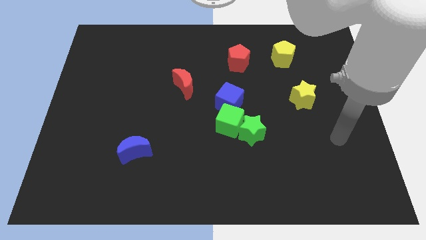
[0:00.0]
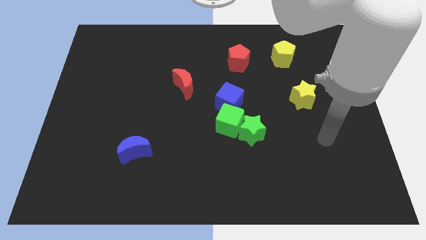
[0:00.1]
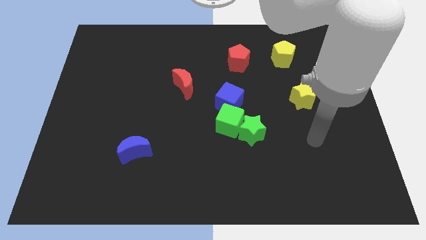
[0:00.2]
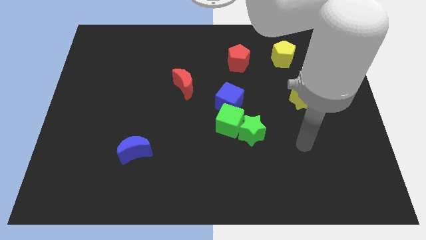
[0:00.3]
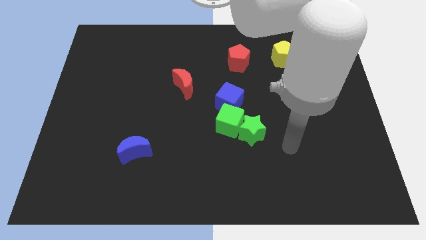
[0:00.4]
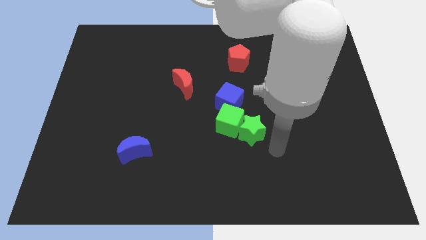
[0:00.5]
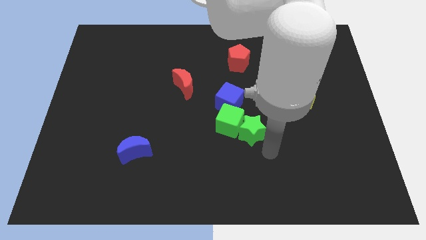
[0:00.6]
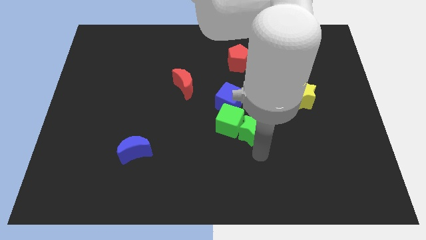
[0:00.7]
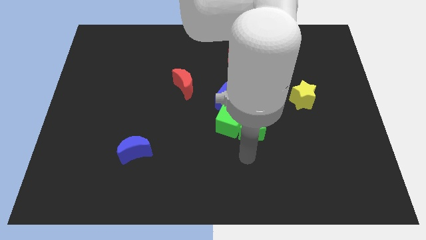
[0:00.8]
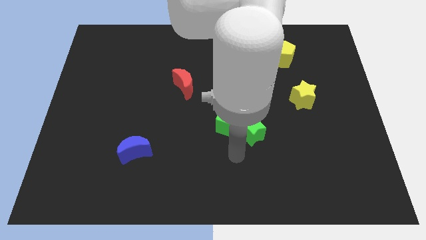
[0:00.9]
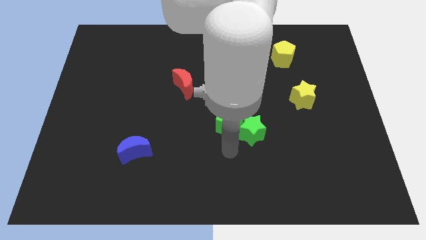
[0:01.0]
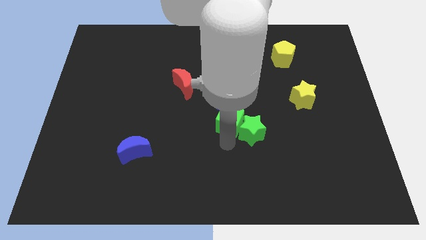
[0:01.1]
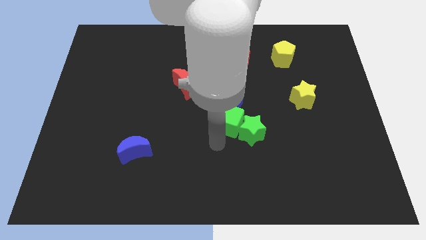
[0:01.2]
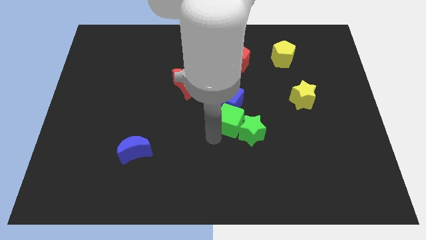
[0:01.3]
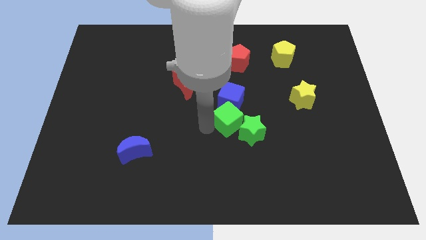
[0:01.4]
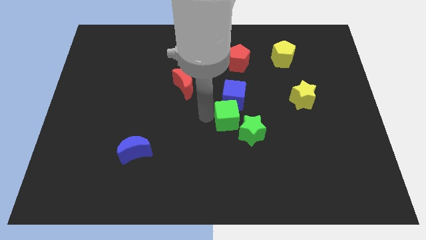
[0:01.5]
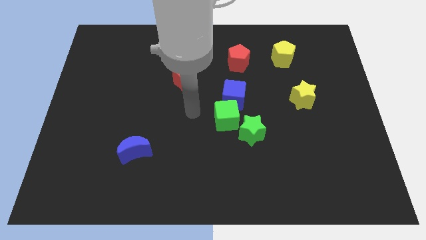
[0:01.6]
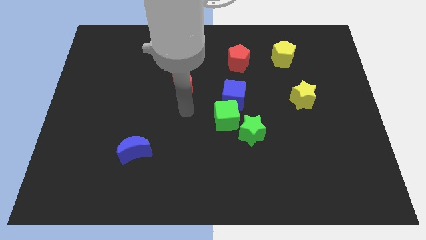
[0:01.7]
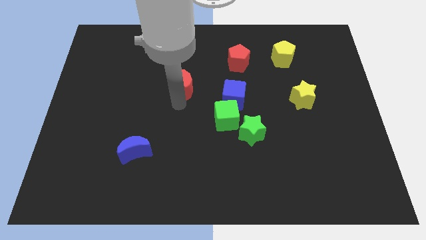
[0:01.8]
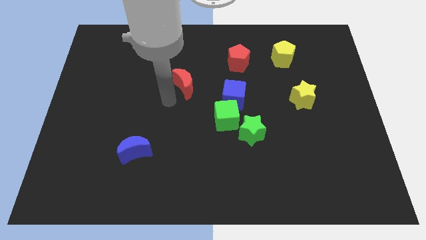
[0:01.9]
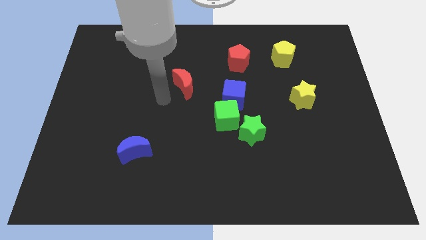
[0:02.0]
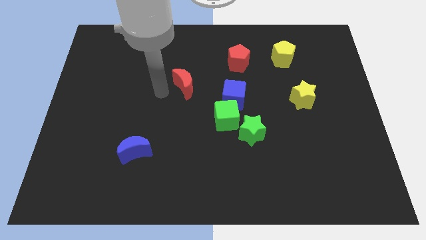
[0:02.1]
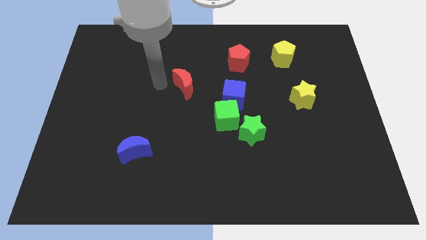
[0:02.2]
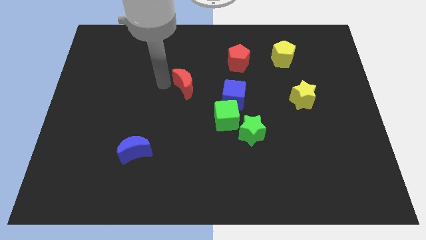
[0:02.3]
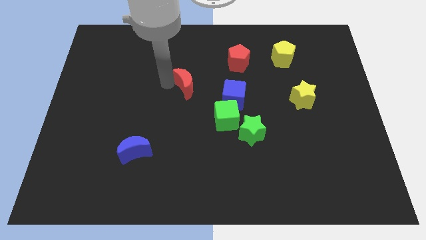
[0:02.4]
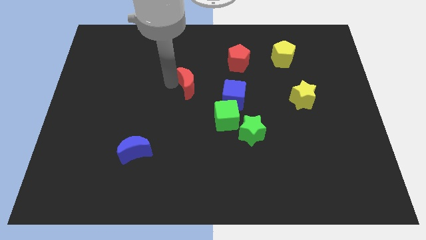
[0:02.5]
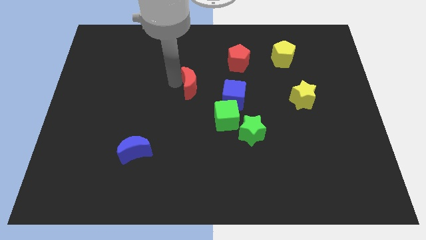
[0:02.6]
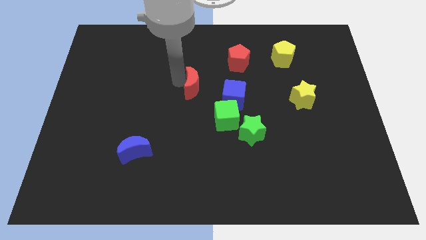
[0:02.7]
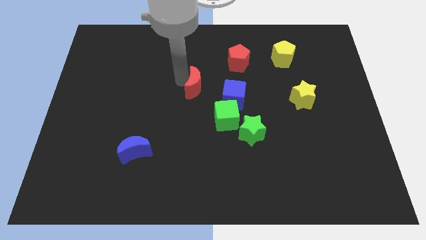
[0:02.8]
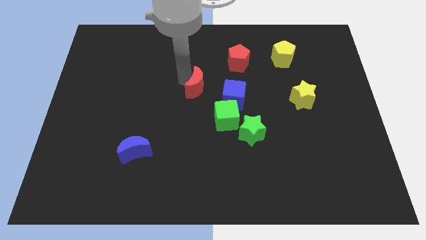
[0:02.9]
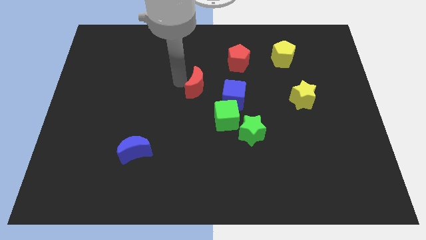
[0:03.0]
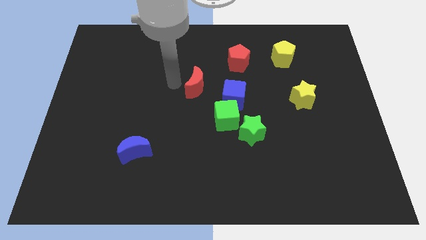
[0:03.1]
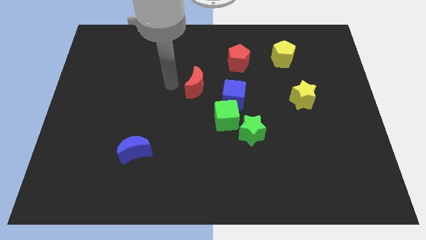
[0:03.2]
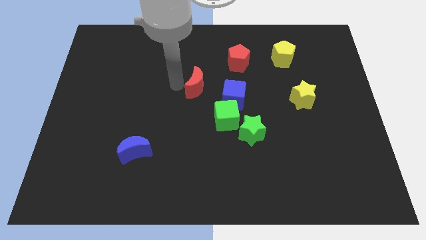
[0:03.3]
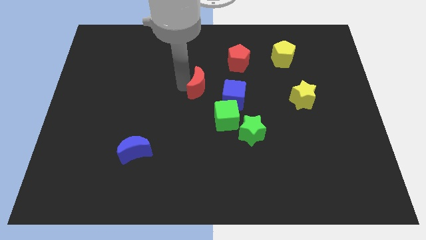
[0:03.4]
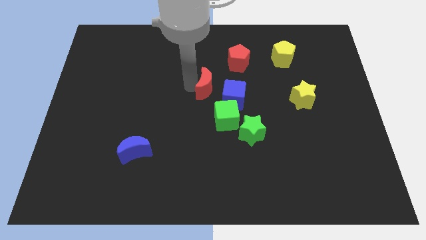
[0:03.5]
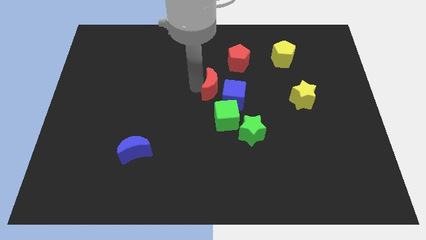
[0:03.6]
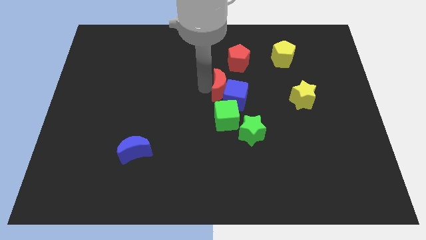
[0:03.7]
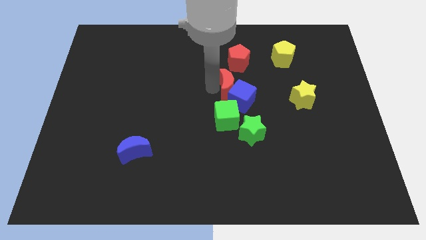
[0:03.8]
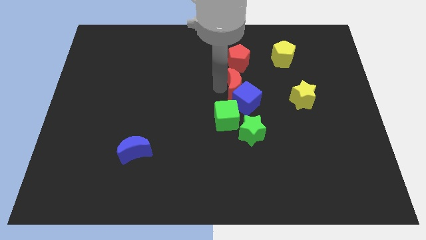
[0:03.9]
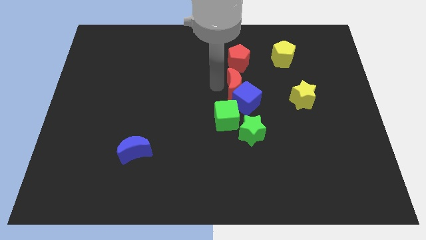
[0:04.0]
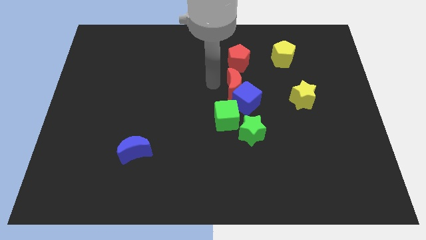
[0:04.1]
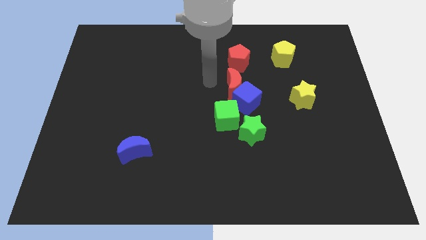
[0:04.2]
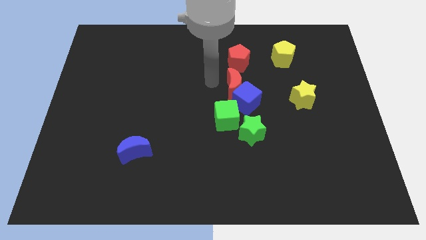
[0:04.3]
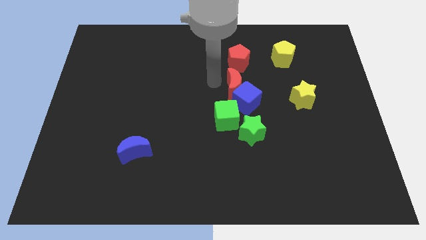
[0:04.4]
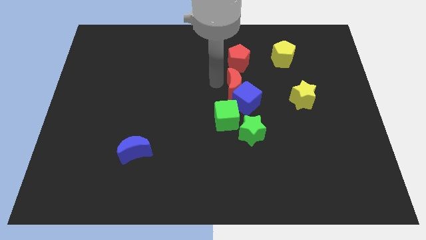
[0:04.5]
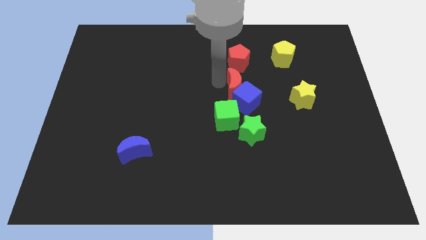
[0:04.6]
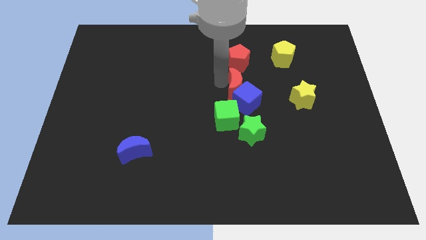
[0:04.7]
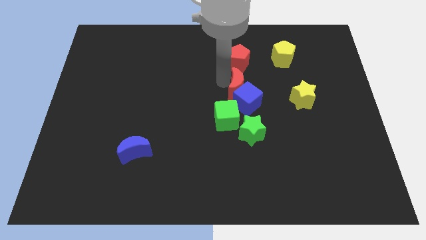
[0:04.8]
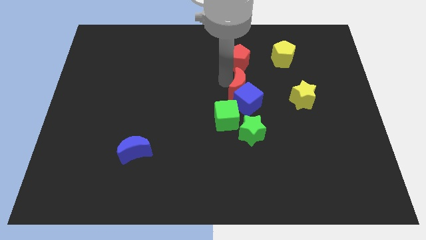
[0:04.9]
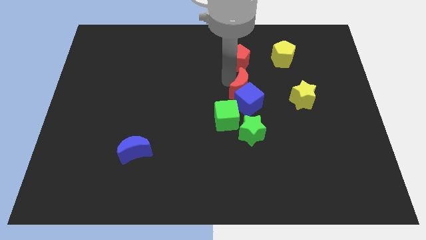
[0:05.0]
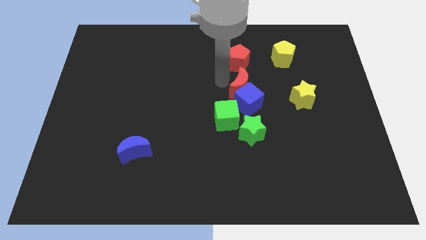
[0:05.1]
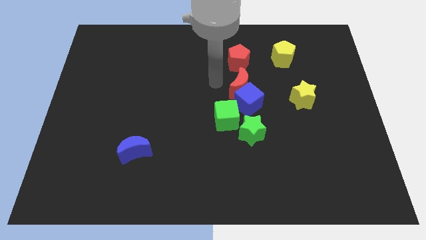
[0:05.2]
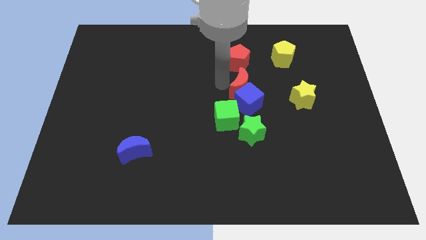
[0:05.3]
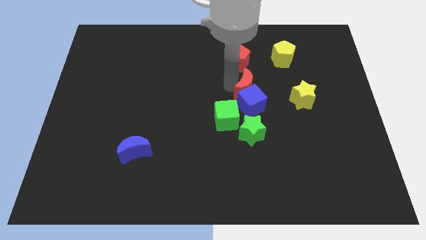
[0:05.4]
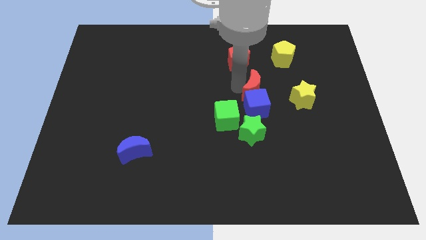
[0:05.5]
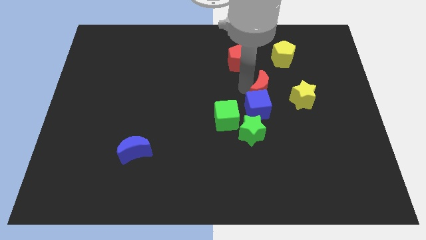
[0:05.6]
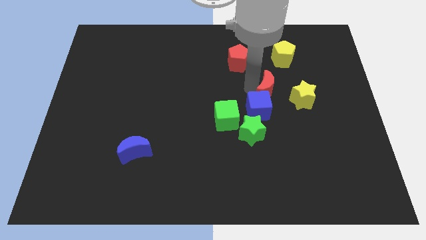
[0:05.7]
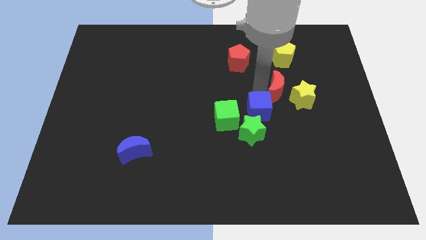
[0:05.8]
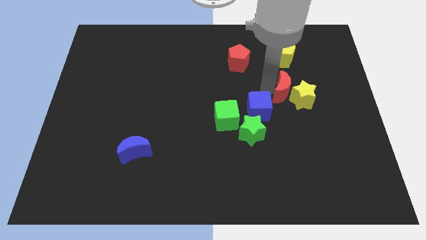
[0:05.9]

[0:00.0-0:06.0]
slide the red moon to the yellow star

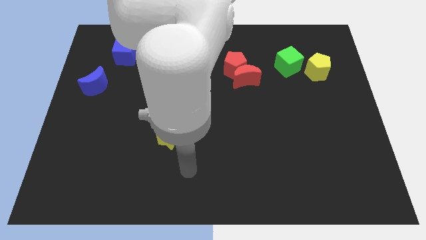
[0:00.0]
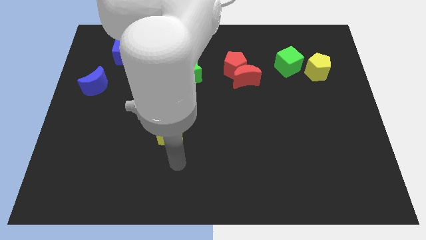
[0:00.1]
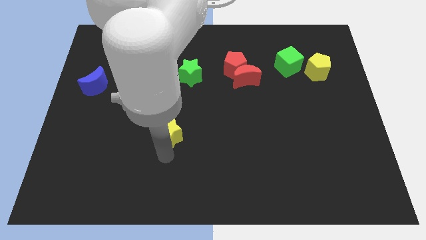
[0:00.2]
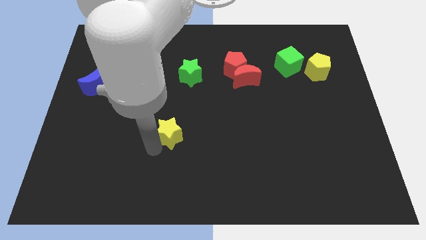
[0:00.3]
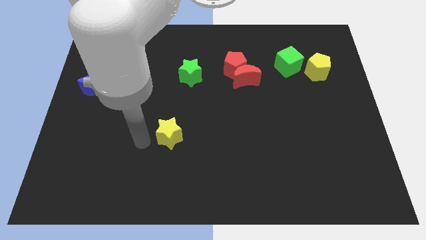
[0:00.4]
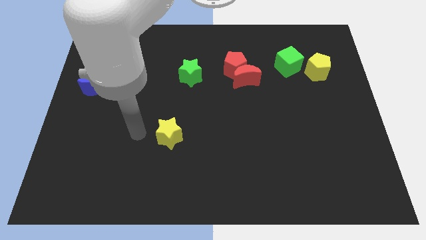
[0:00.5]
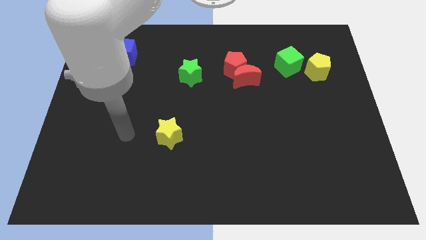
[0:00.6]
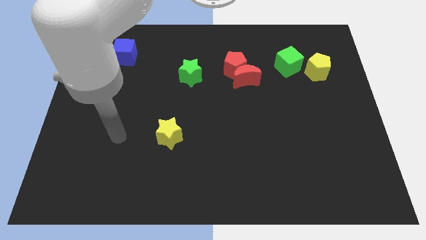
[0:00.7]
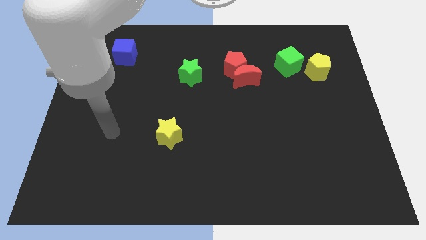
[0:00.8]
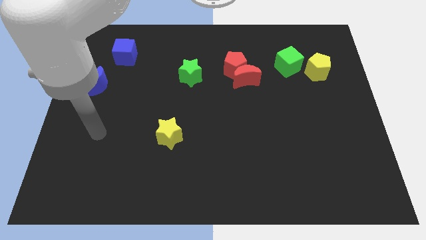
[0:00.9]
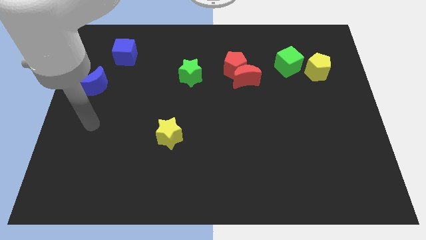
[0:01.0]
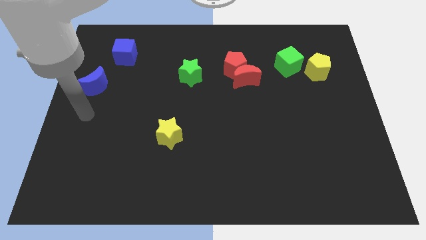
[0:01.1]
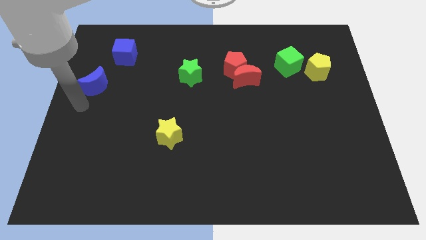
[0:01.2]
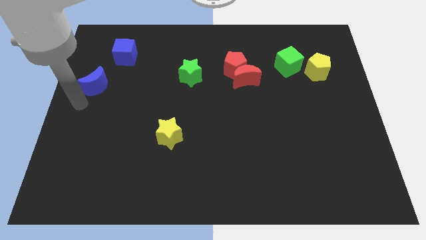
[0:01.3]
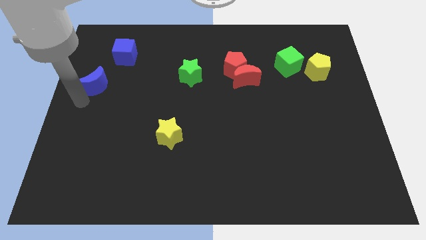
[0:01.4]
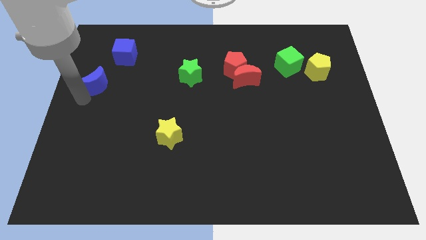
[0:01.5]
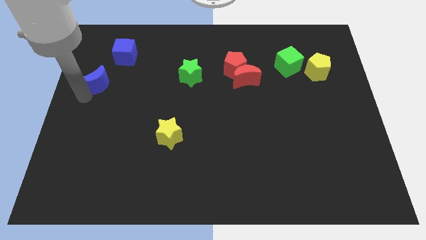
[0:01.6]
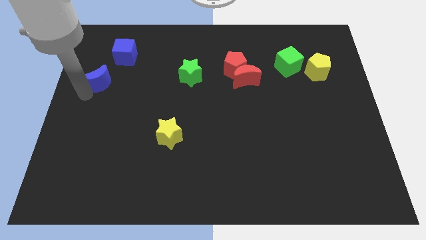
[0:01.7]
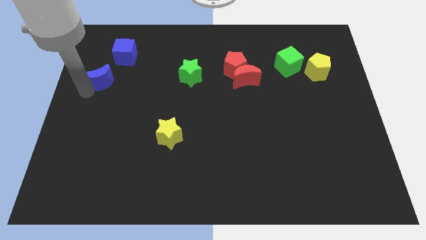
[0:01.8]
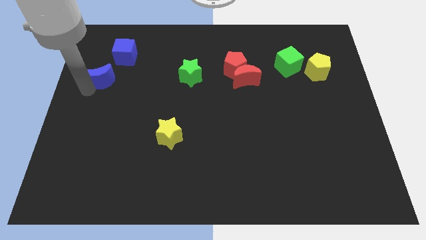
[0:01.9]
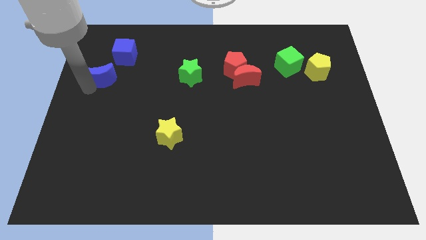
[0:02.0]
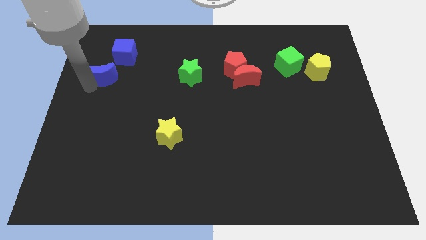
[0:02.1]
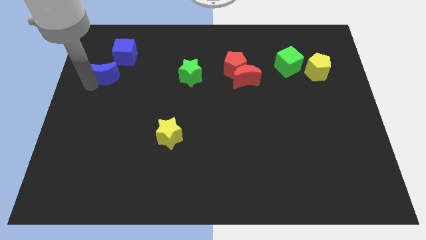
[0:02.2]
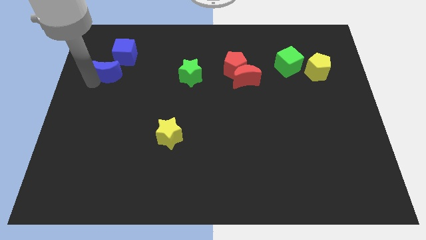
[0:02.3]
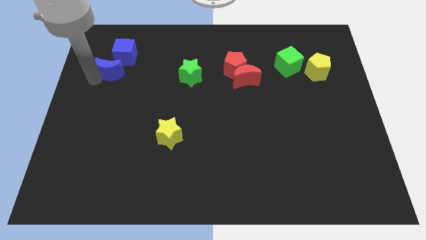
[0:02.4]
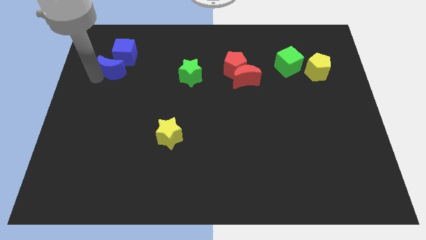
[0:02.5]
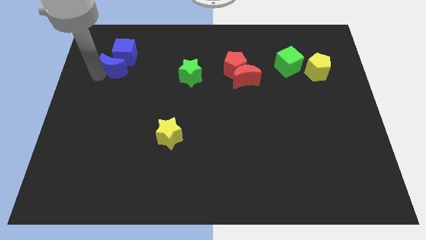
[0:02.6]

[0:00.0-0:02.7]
move the blue moon to the blue cube
